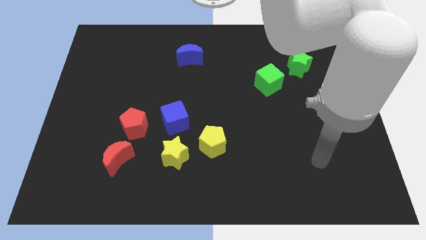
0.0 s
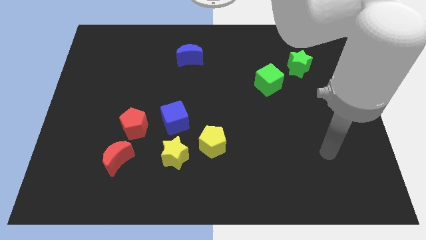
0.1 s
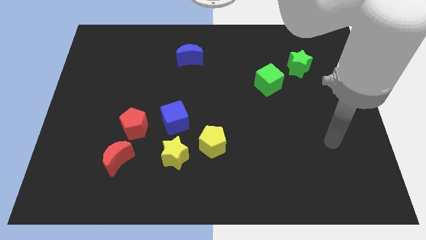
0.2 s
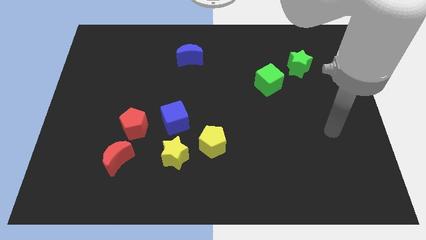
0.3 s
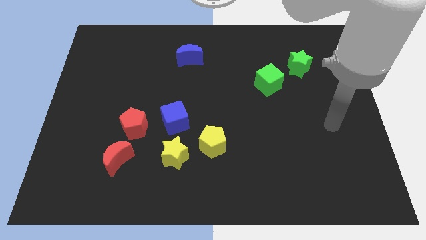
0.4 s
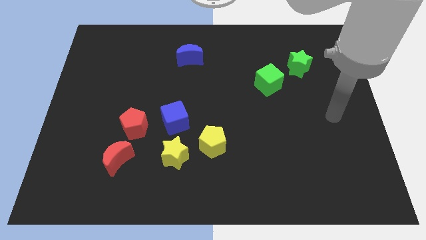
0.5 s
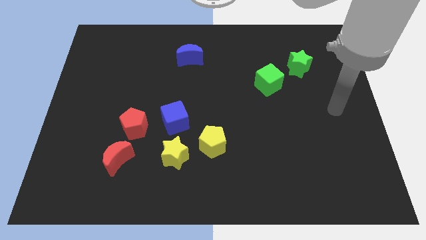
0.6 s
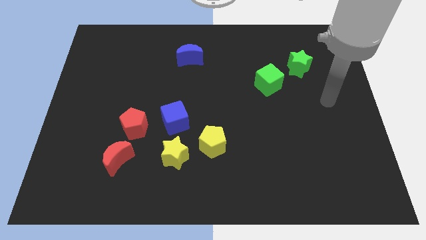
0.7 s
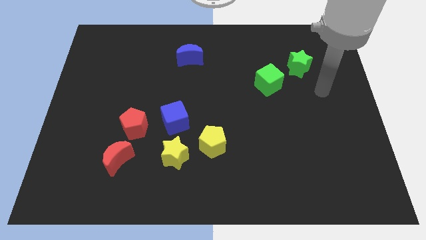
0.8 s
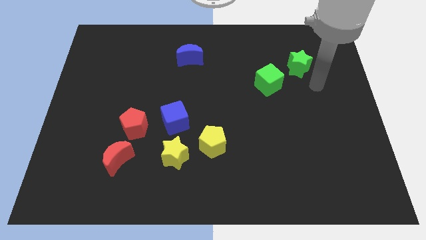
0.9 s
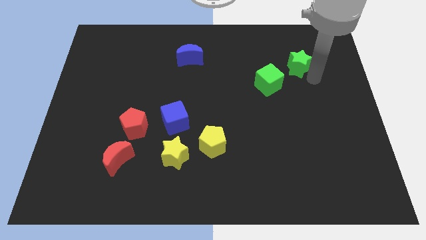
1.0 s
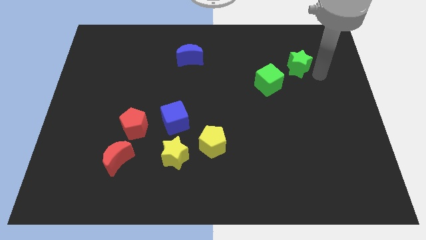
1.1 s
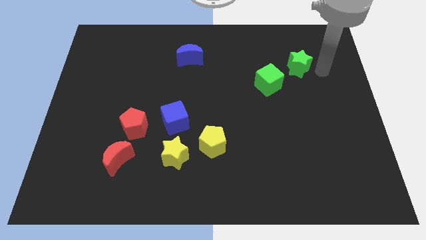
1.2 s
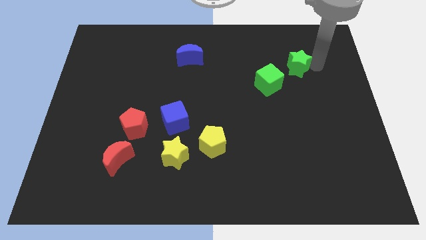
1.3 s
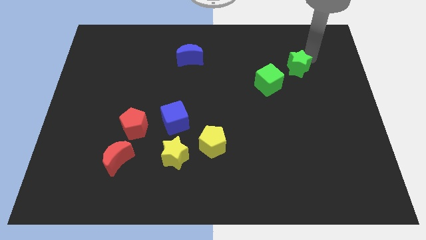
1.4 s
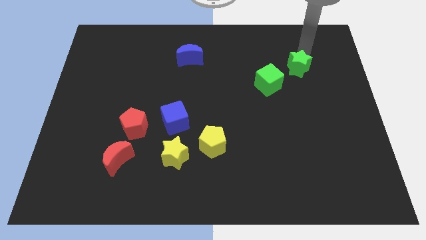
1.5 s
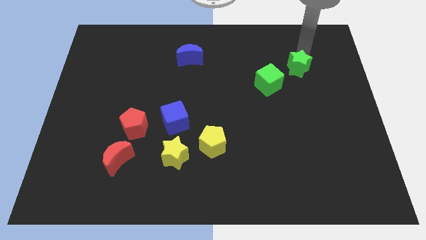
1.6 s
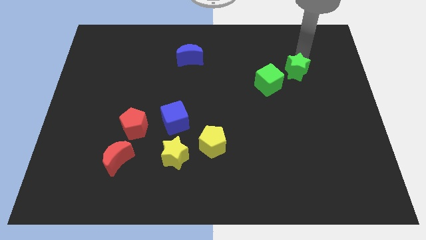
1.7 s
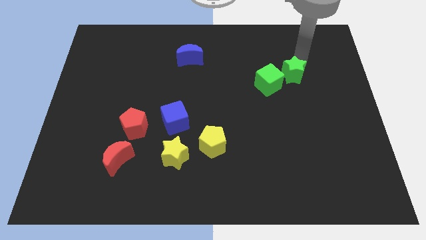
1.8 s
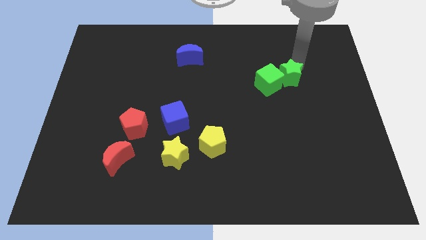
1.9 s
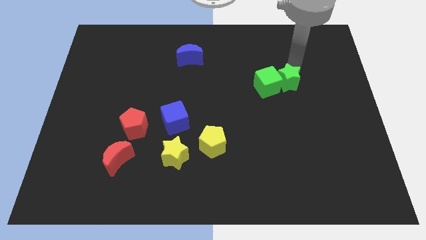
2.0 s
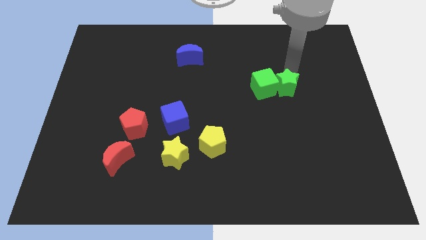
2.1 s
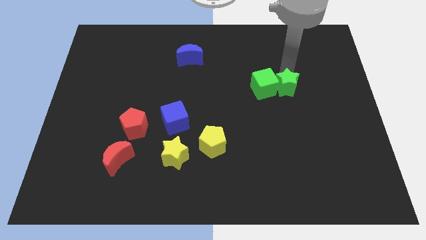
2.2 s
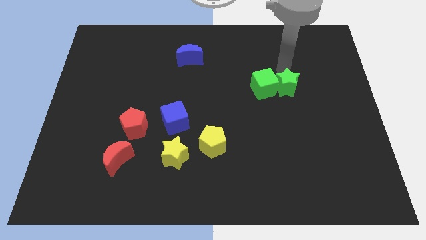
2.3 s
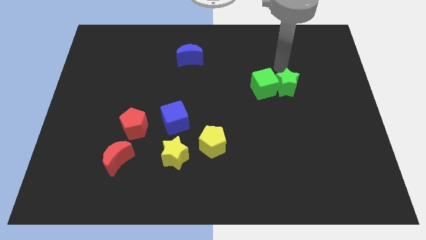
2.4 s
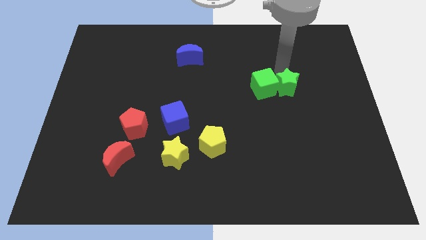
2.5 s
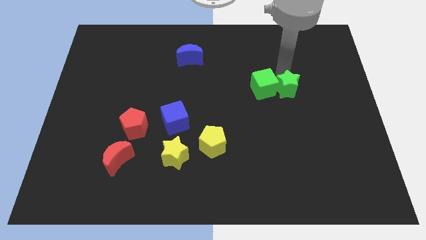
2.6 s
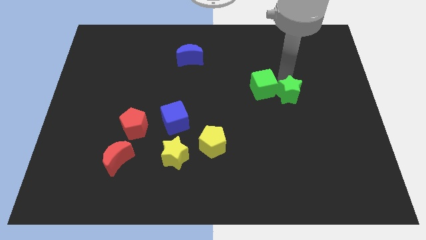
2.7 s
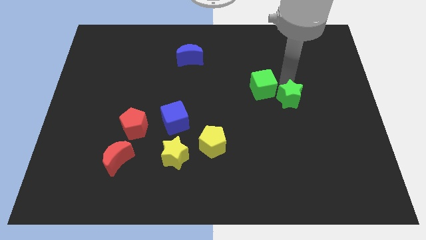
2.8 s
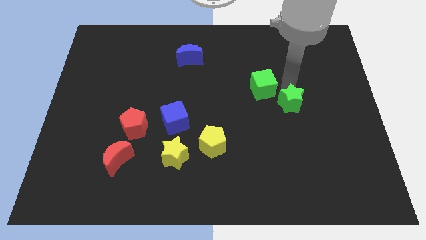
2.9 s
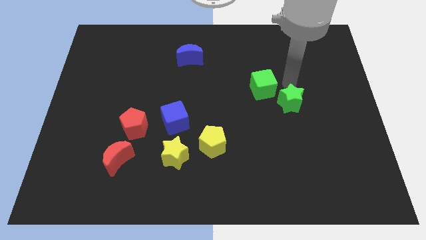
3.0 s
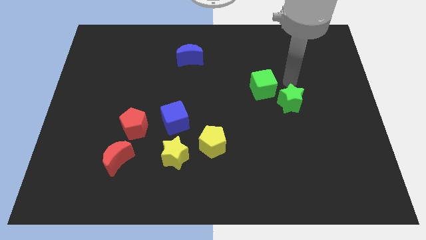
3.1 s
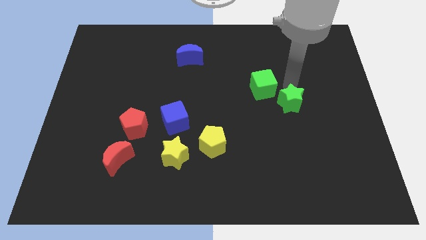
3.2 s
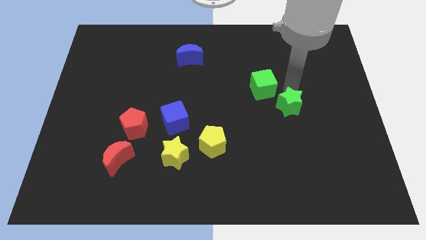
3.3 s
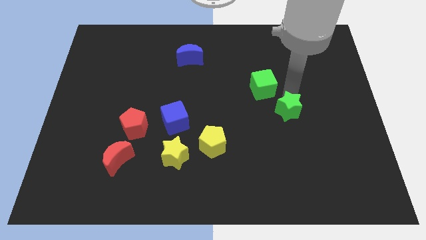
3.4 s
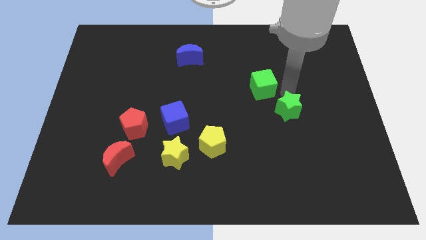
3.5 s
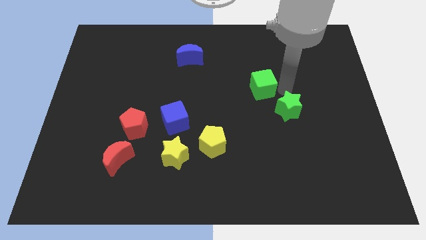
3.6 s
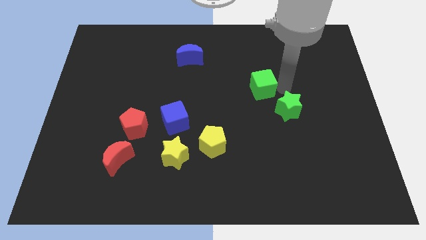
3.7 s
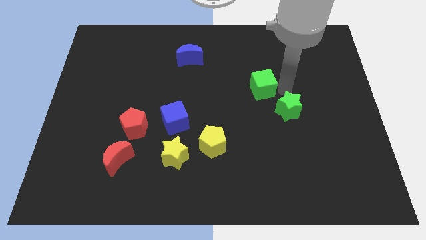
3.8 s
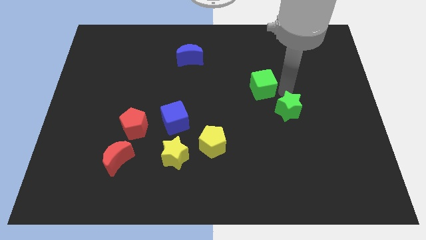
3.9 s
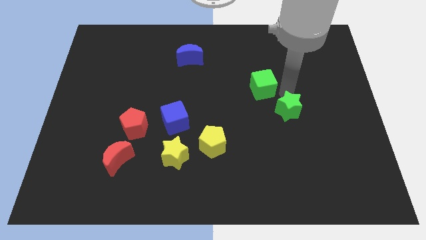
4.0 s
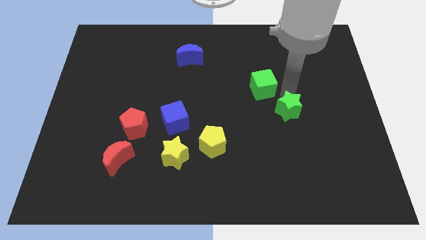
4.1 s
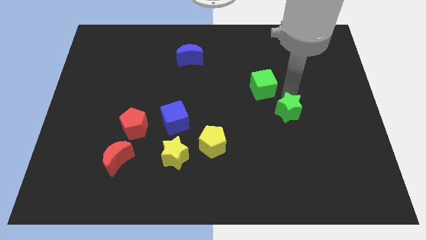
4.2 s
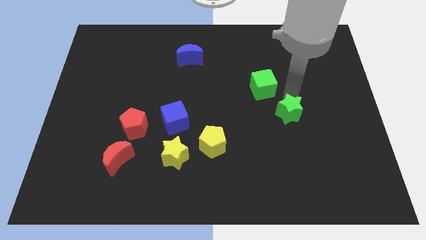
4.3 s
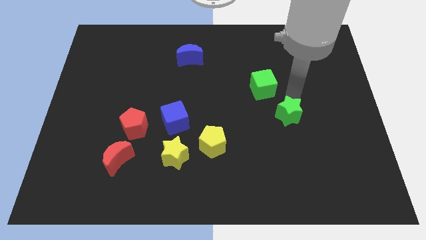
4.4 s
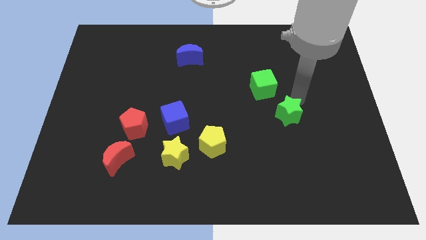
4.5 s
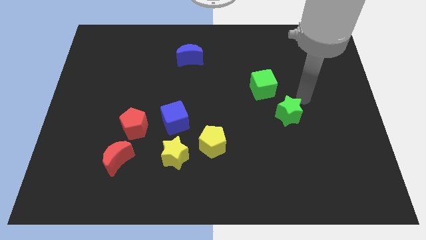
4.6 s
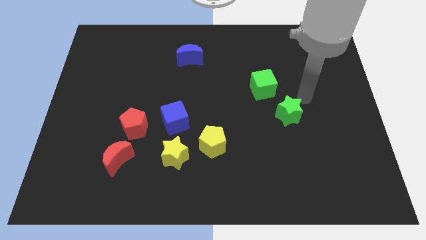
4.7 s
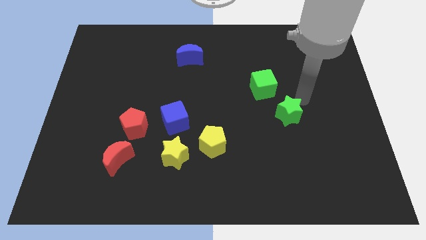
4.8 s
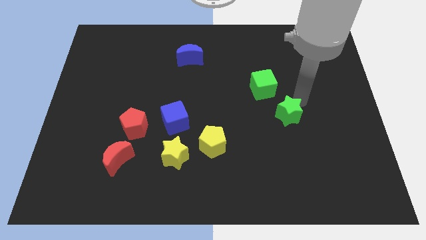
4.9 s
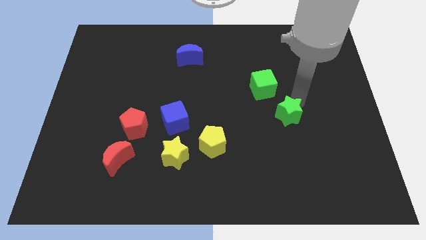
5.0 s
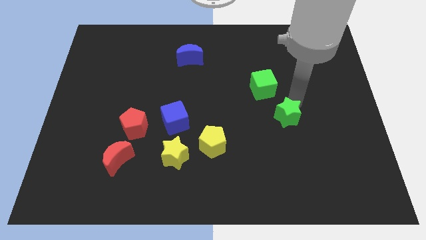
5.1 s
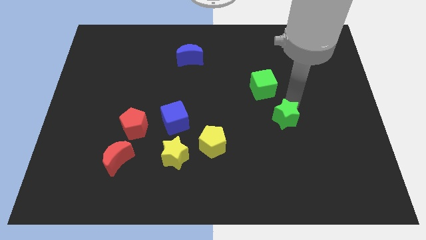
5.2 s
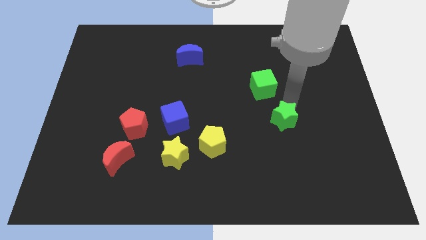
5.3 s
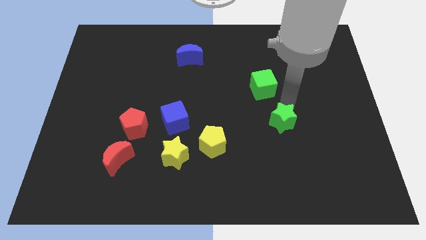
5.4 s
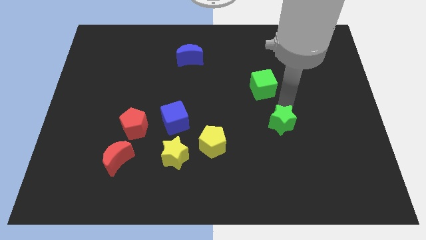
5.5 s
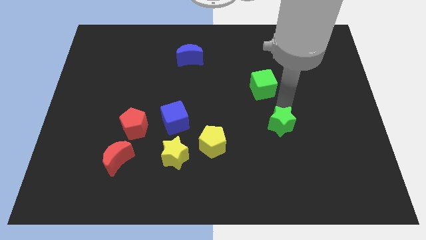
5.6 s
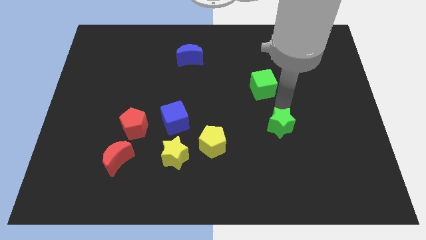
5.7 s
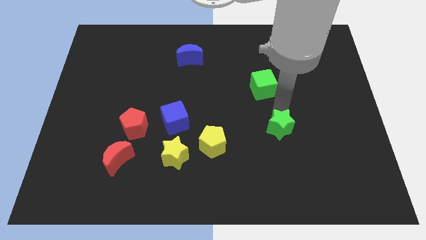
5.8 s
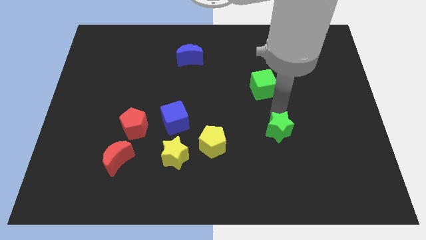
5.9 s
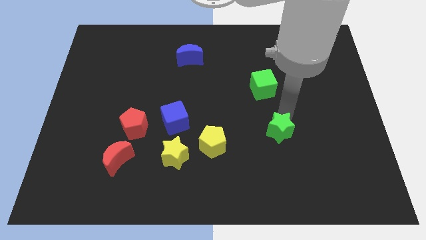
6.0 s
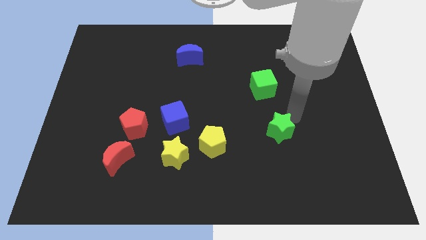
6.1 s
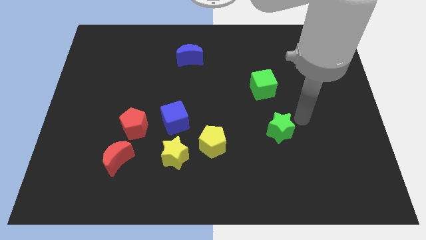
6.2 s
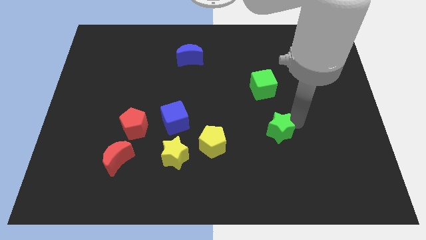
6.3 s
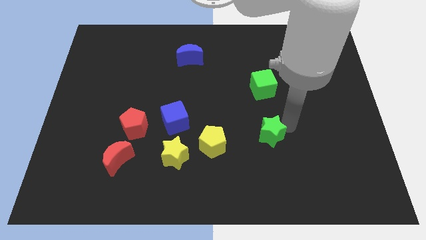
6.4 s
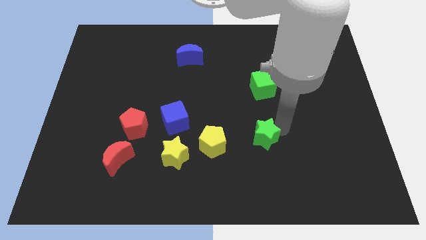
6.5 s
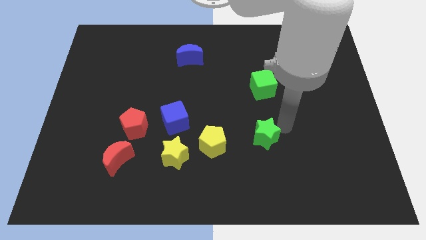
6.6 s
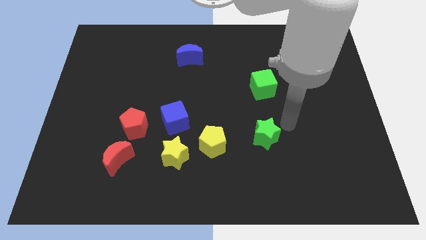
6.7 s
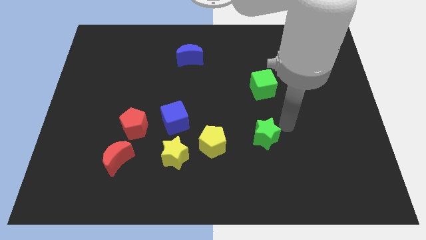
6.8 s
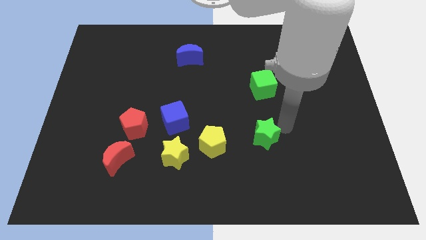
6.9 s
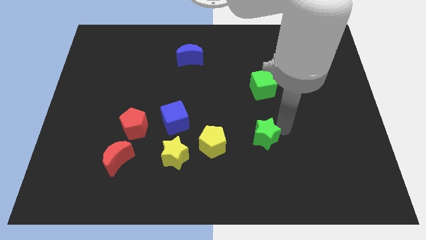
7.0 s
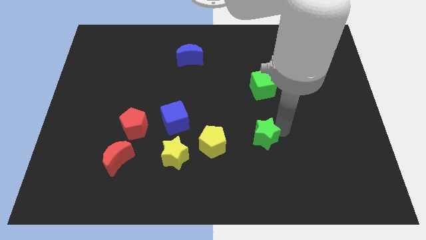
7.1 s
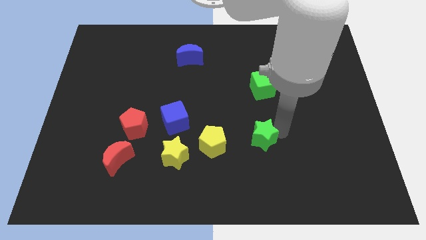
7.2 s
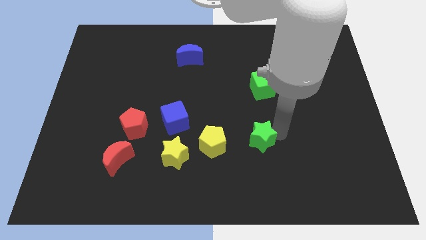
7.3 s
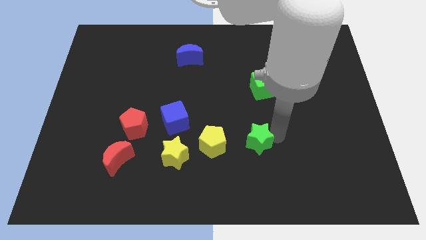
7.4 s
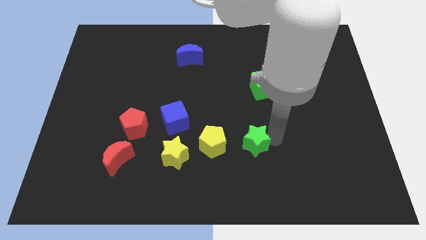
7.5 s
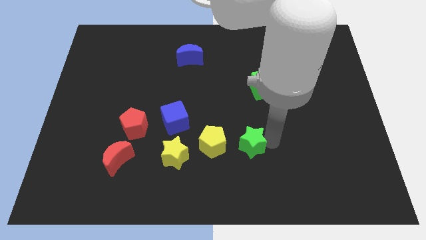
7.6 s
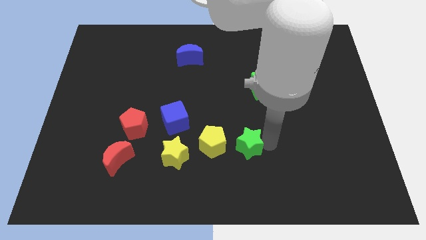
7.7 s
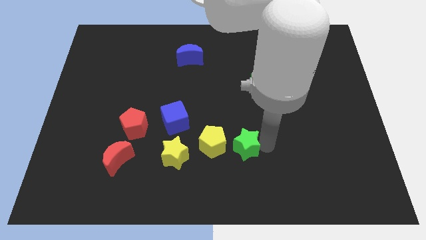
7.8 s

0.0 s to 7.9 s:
move the green star right of the yellow star
